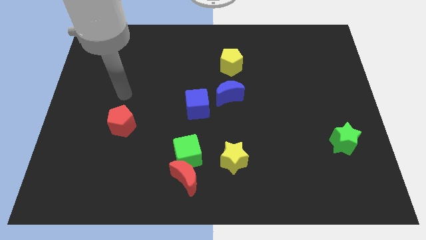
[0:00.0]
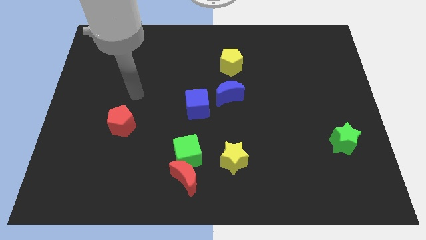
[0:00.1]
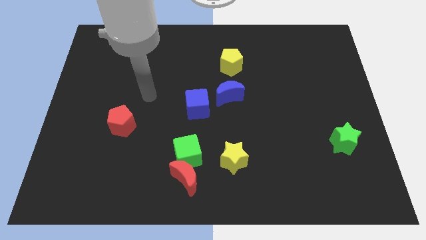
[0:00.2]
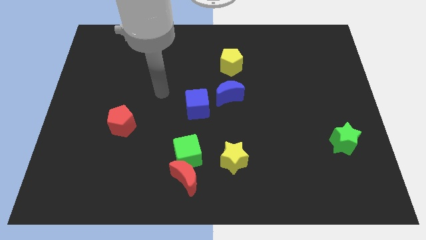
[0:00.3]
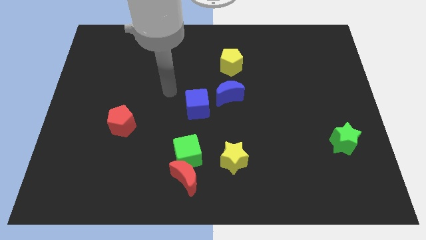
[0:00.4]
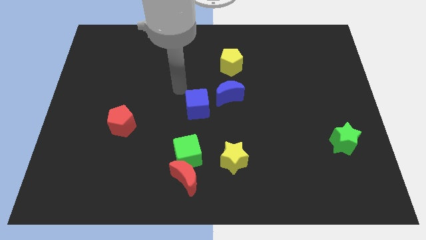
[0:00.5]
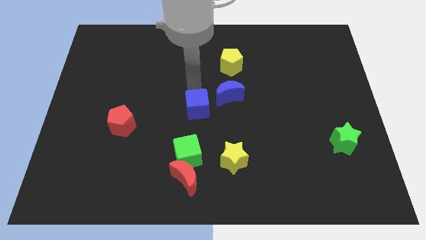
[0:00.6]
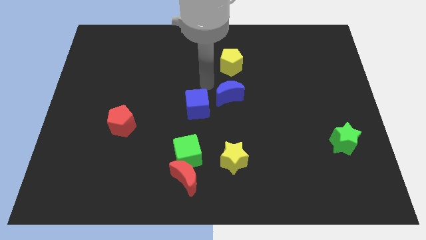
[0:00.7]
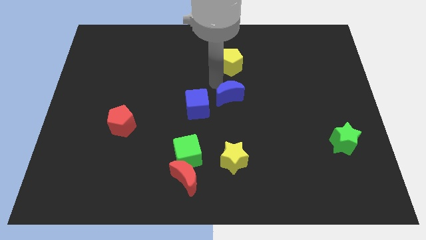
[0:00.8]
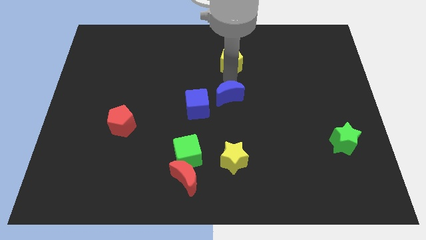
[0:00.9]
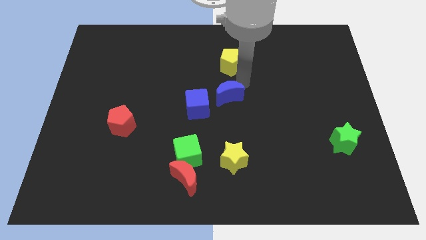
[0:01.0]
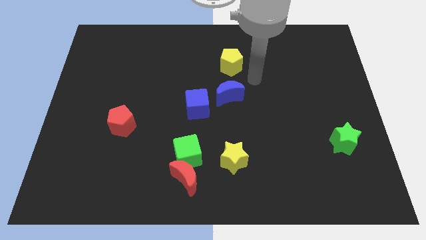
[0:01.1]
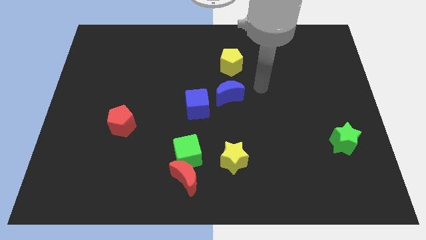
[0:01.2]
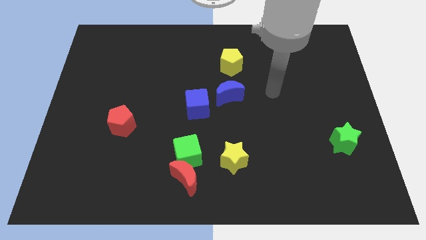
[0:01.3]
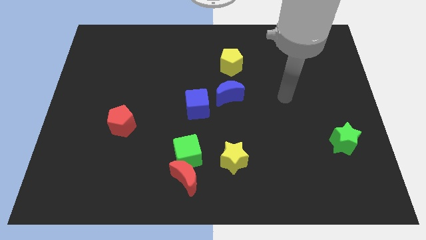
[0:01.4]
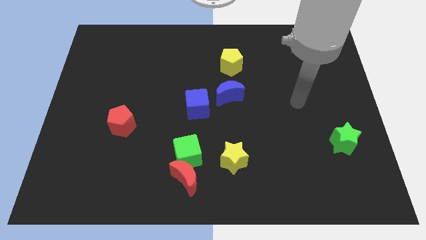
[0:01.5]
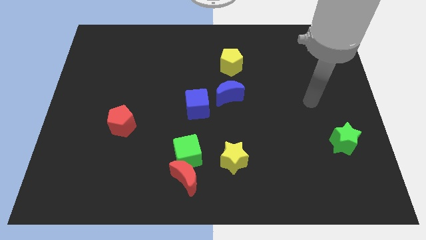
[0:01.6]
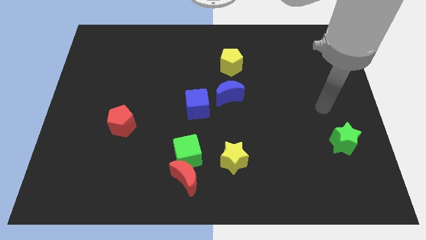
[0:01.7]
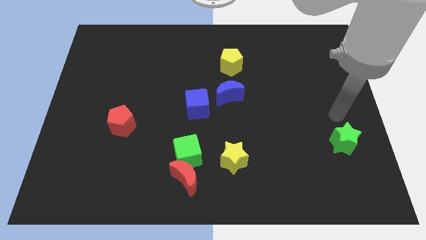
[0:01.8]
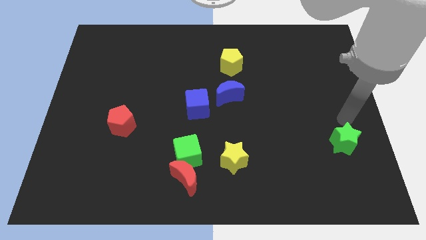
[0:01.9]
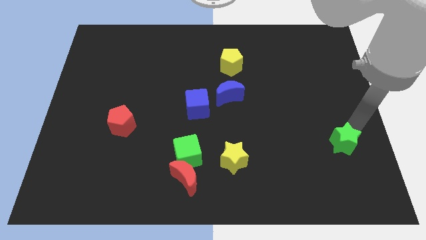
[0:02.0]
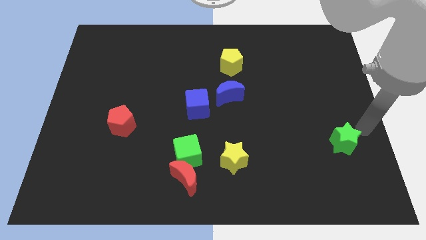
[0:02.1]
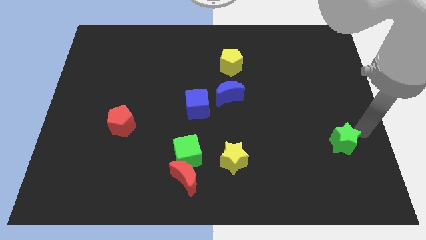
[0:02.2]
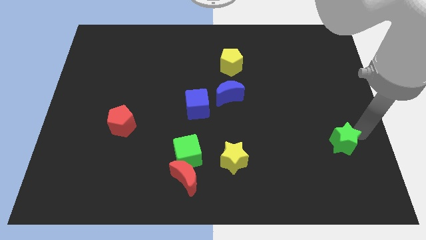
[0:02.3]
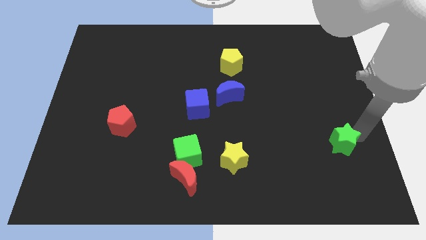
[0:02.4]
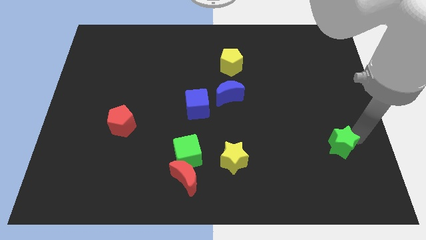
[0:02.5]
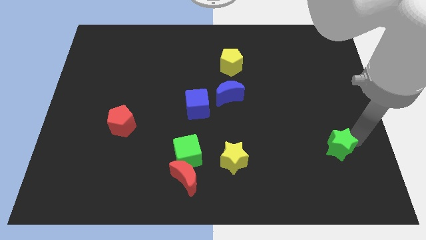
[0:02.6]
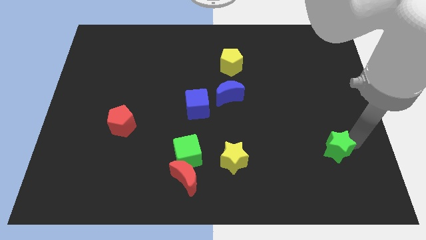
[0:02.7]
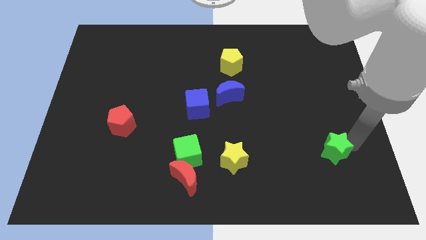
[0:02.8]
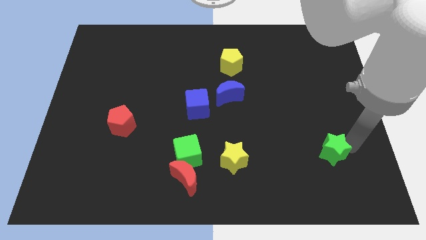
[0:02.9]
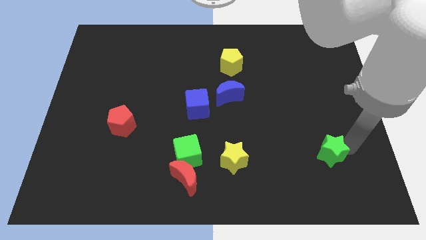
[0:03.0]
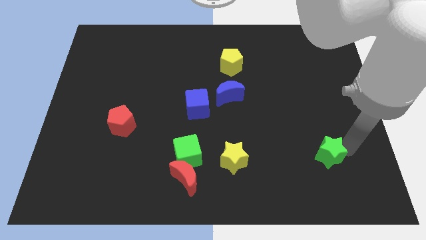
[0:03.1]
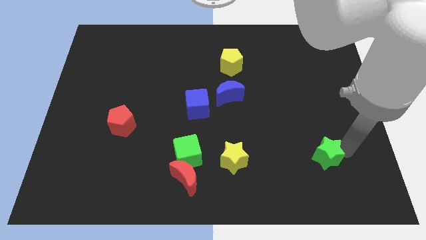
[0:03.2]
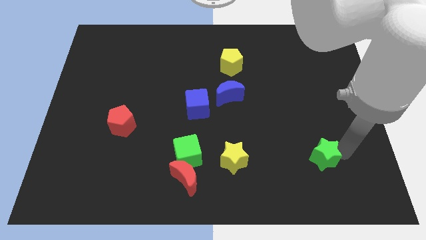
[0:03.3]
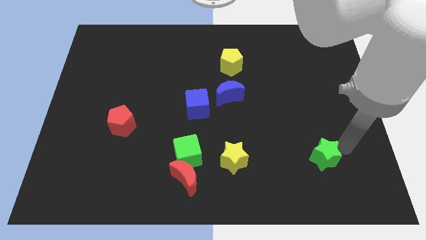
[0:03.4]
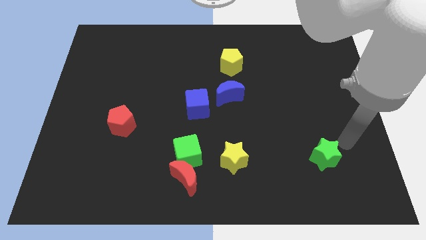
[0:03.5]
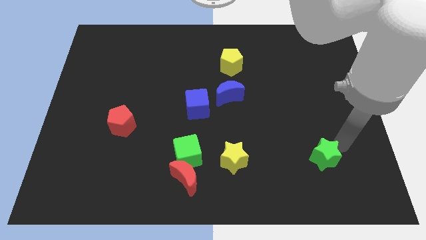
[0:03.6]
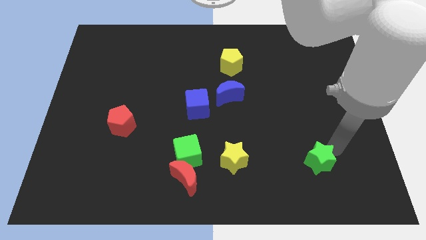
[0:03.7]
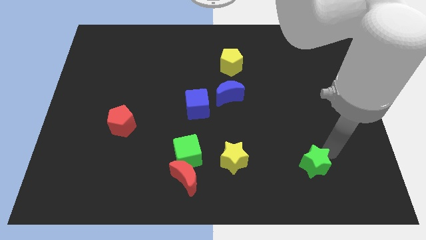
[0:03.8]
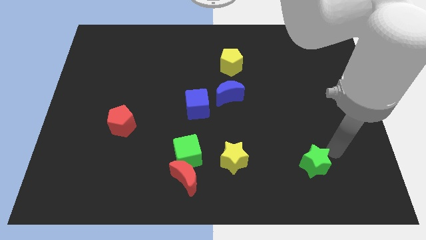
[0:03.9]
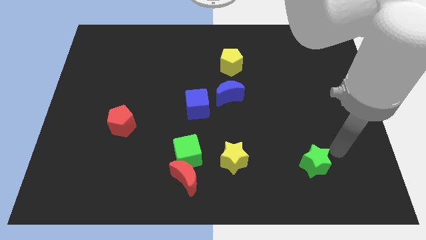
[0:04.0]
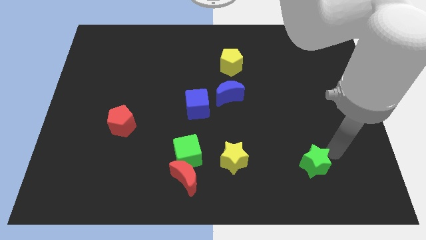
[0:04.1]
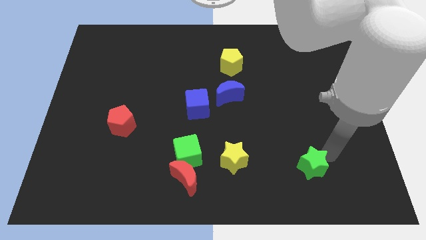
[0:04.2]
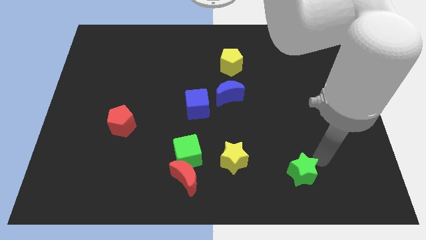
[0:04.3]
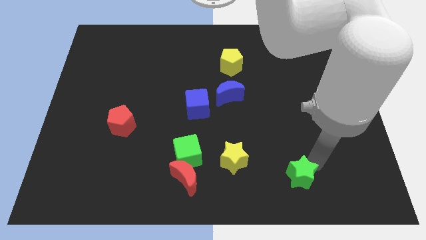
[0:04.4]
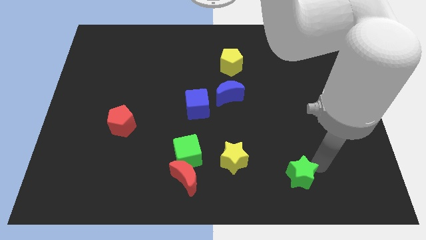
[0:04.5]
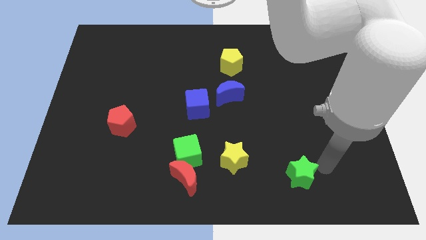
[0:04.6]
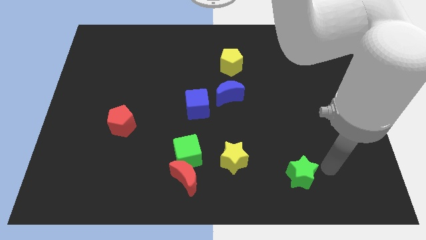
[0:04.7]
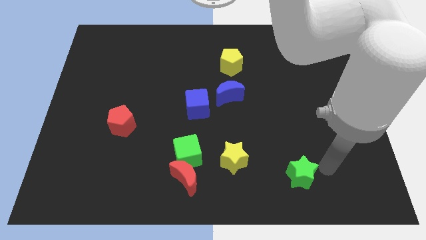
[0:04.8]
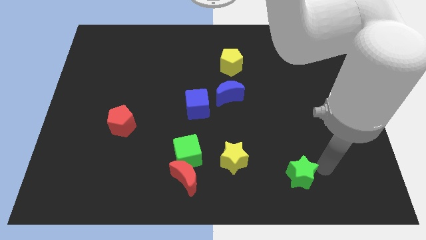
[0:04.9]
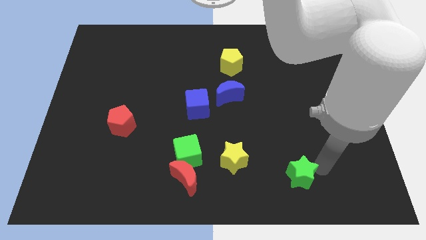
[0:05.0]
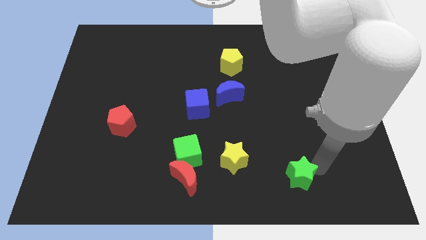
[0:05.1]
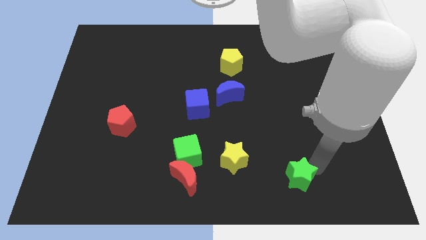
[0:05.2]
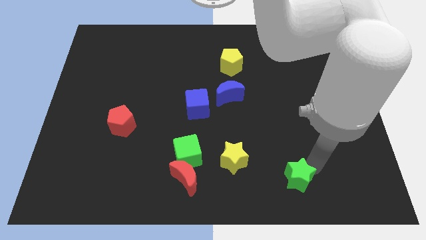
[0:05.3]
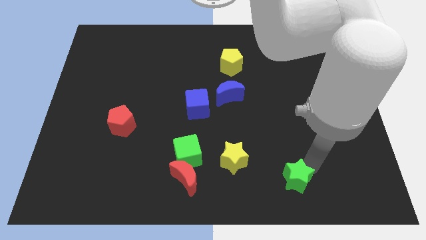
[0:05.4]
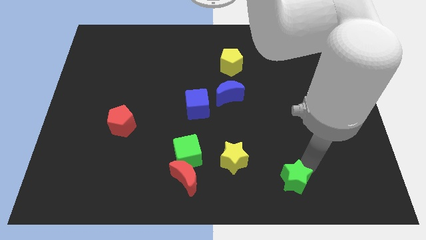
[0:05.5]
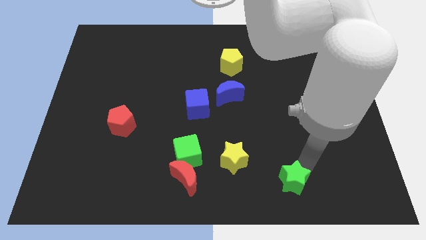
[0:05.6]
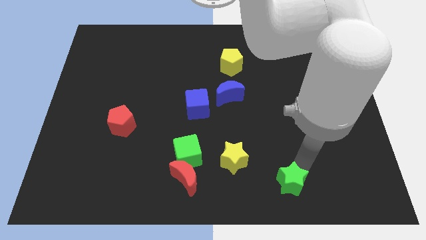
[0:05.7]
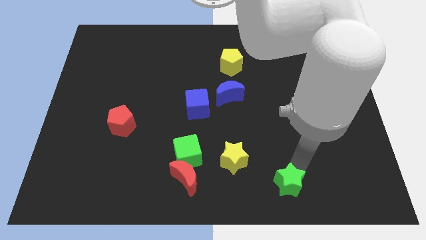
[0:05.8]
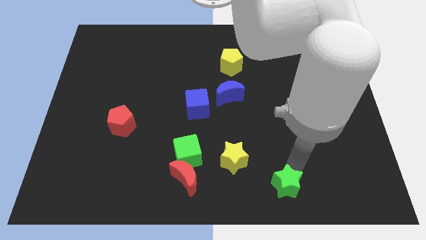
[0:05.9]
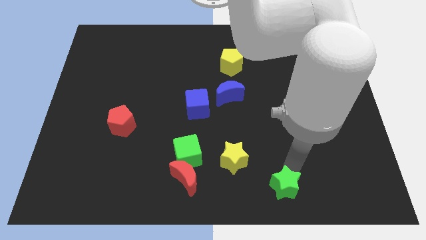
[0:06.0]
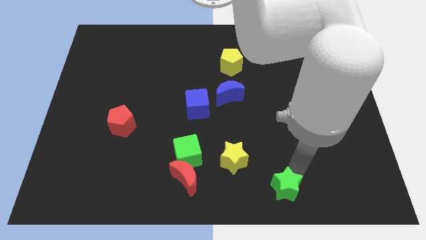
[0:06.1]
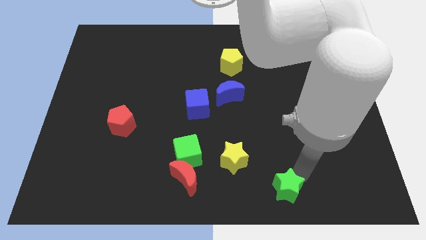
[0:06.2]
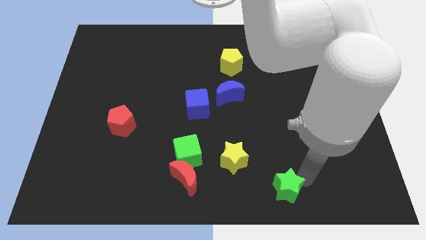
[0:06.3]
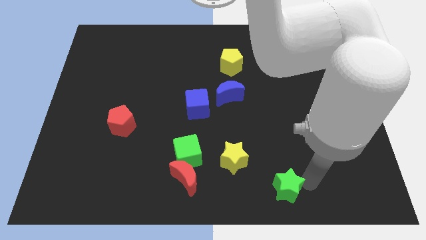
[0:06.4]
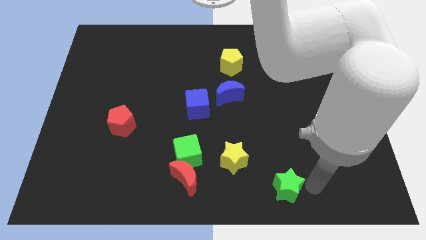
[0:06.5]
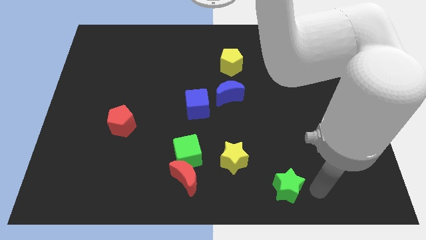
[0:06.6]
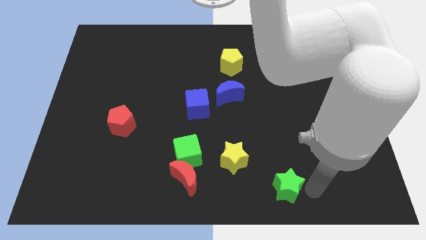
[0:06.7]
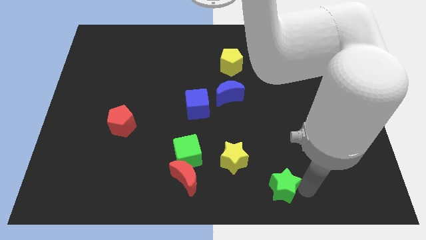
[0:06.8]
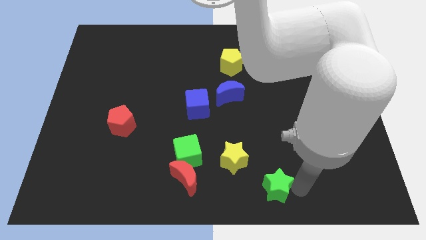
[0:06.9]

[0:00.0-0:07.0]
put the green star to the bottom side

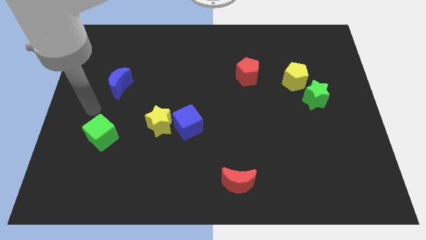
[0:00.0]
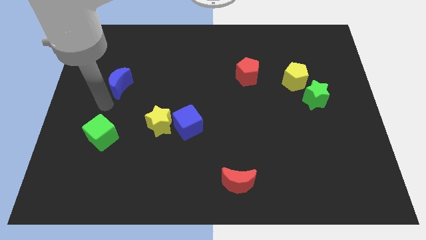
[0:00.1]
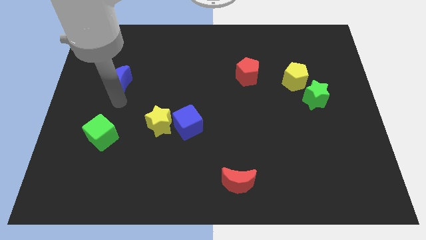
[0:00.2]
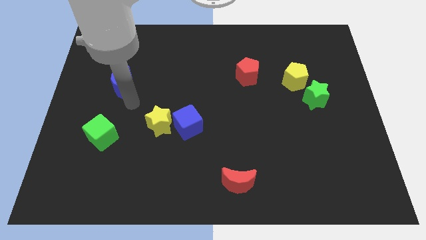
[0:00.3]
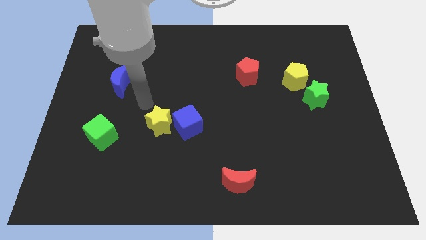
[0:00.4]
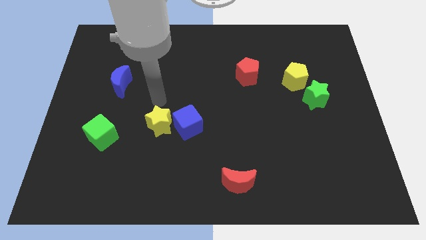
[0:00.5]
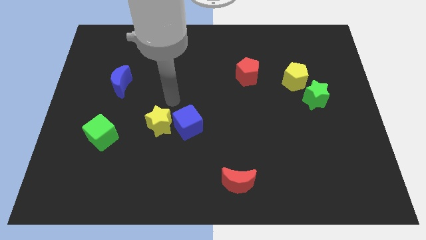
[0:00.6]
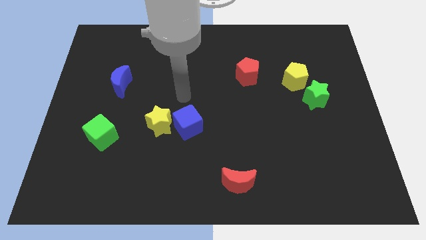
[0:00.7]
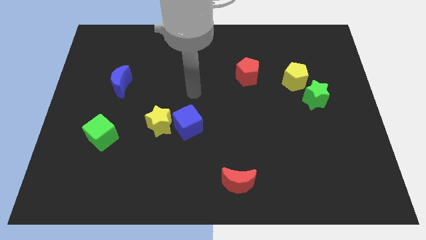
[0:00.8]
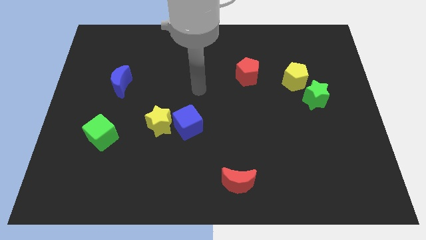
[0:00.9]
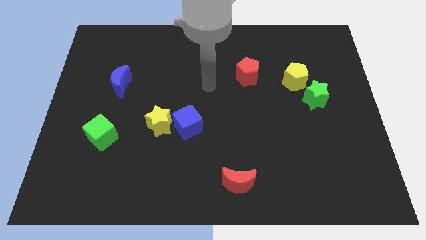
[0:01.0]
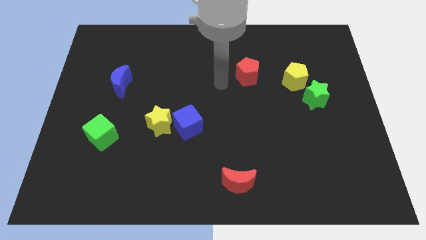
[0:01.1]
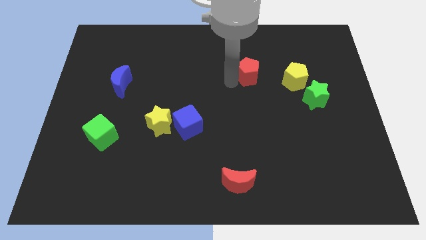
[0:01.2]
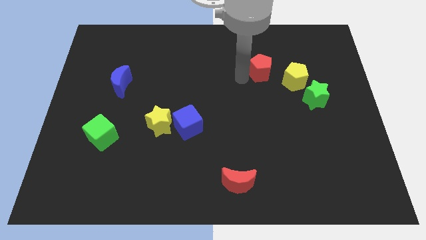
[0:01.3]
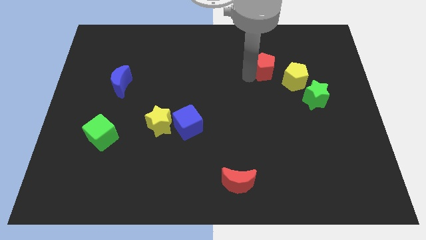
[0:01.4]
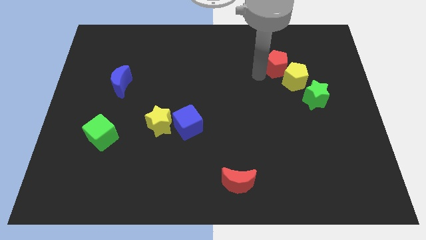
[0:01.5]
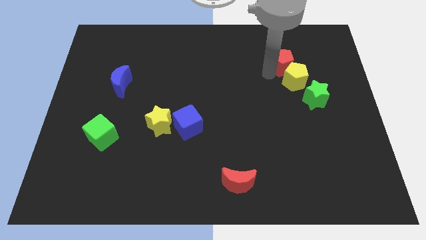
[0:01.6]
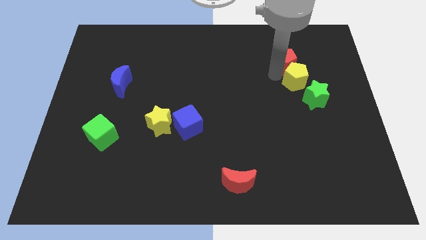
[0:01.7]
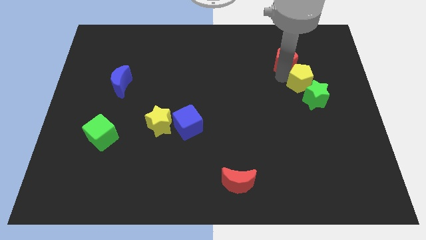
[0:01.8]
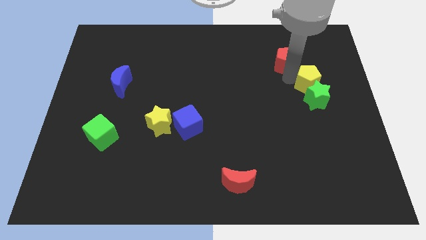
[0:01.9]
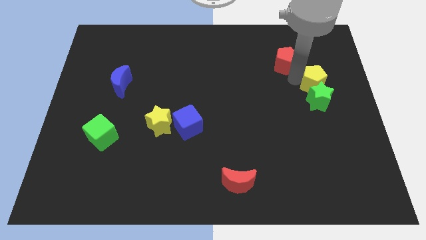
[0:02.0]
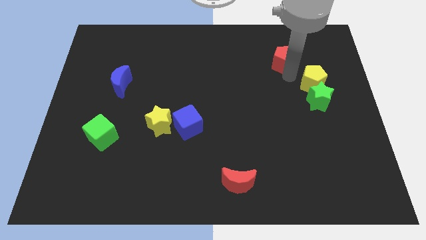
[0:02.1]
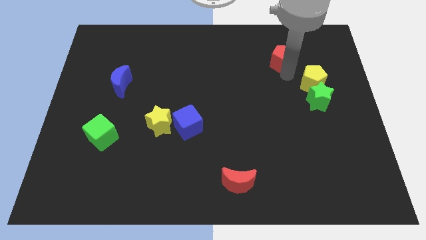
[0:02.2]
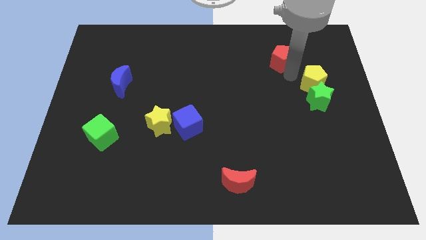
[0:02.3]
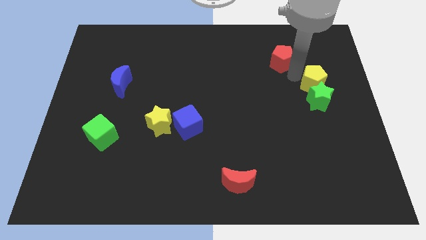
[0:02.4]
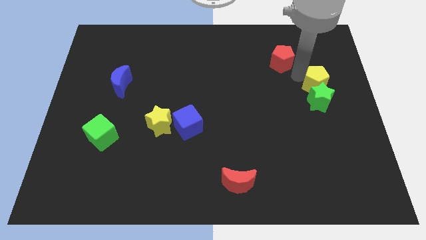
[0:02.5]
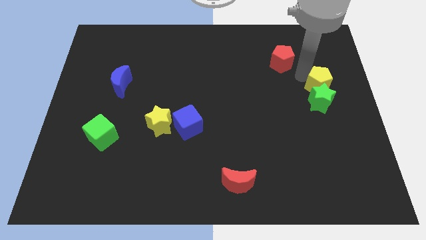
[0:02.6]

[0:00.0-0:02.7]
move the yellow pentagon to the right side of the board
